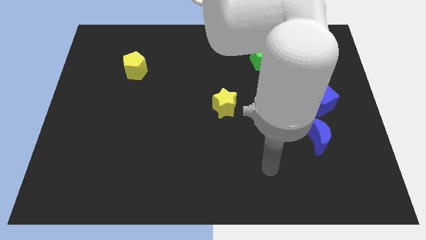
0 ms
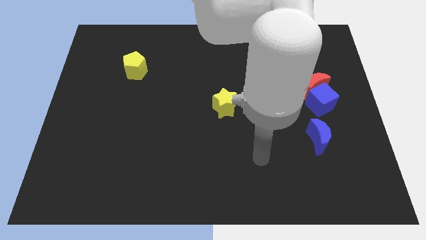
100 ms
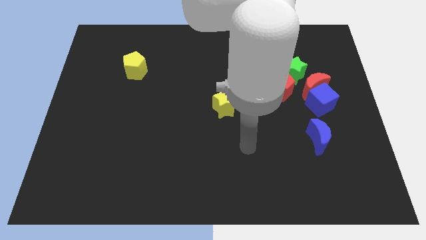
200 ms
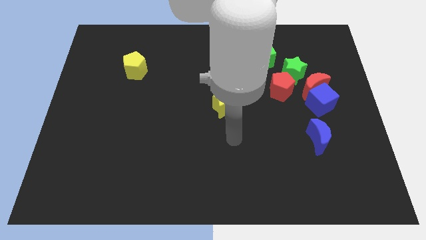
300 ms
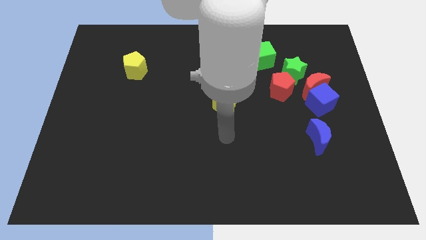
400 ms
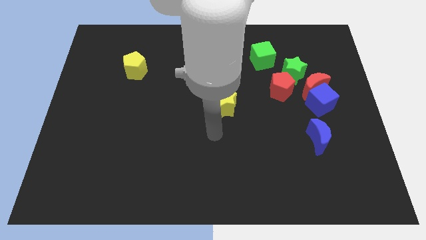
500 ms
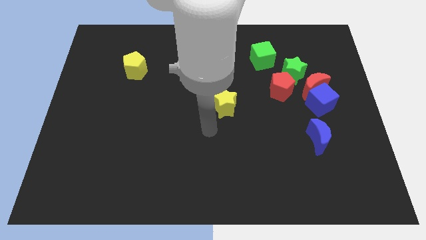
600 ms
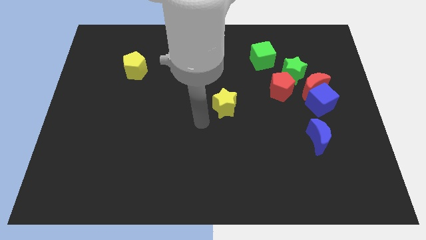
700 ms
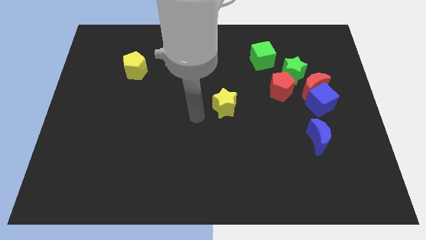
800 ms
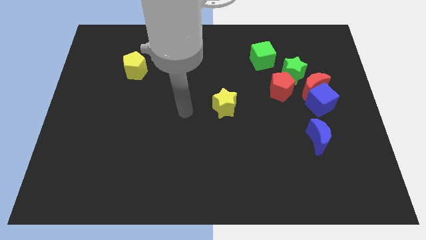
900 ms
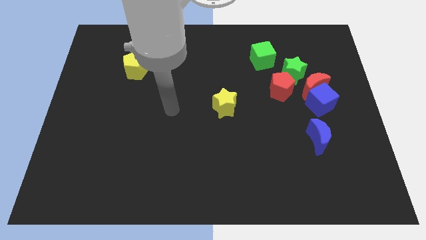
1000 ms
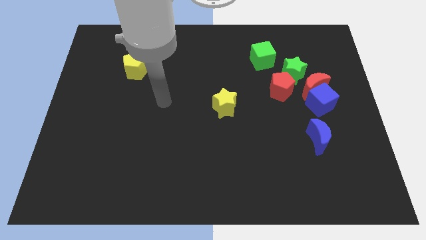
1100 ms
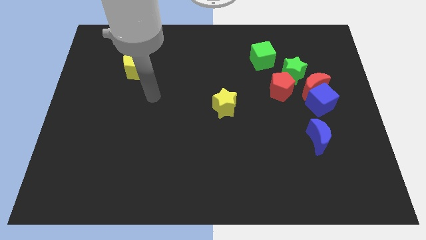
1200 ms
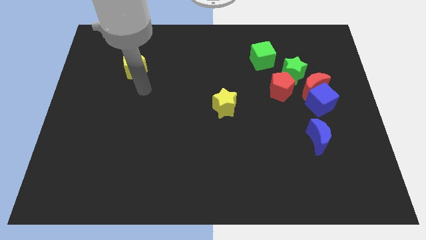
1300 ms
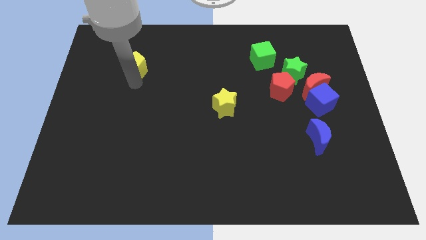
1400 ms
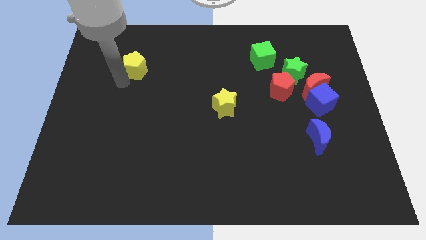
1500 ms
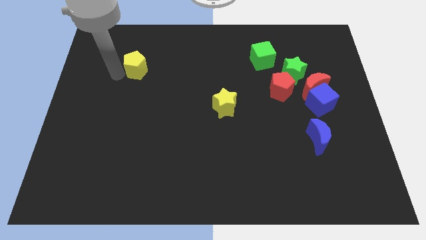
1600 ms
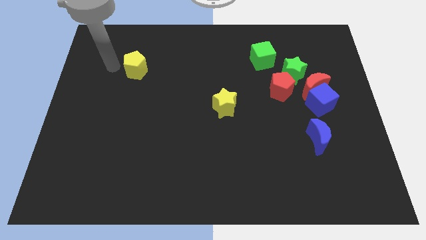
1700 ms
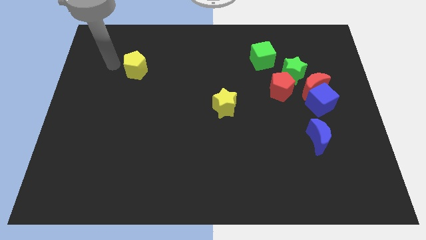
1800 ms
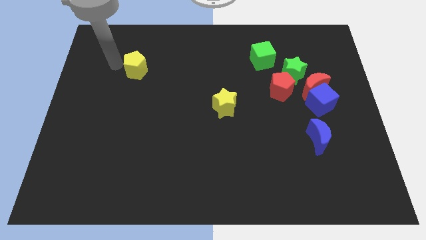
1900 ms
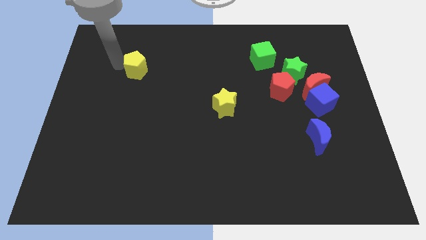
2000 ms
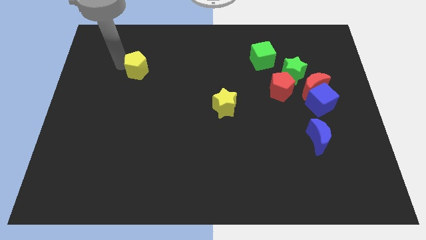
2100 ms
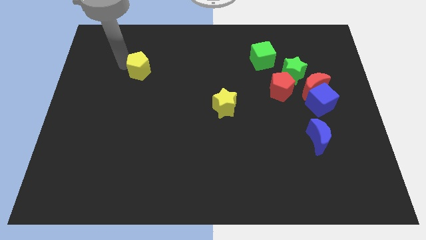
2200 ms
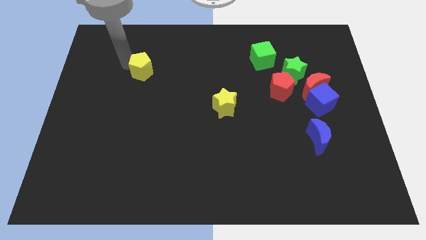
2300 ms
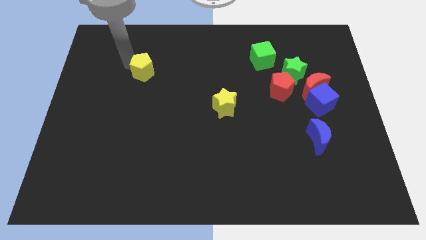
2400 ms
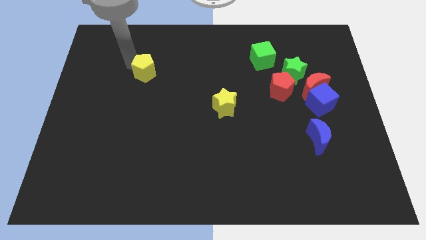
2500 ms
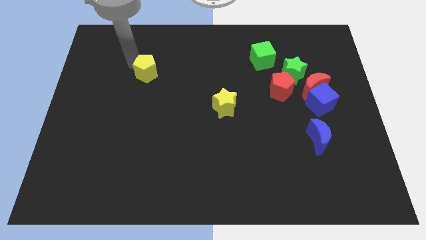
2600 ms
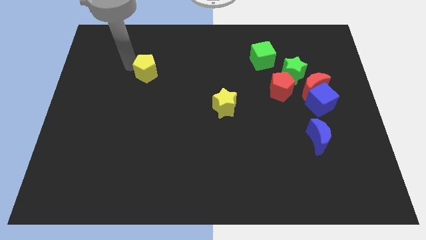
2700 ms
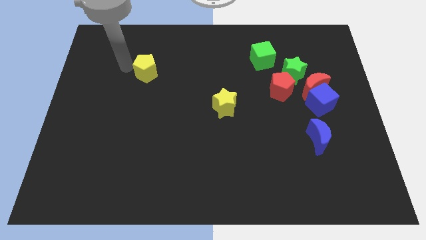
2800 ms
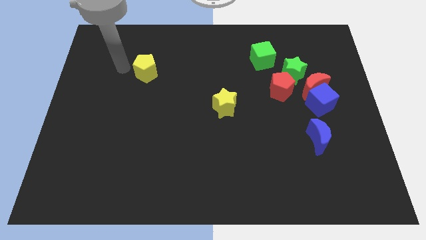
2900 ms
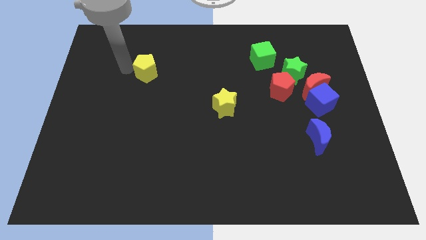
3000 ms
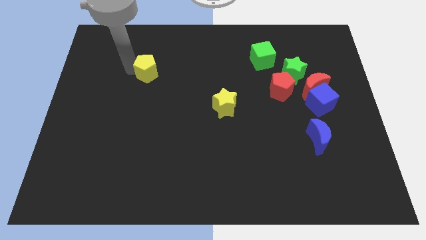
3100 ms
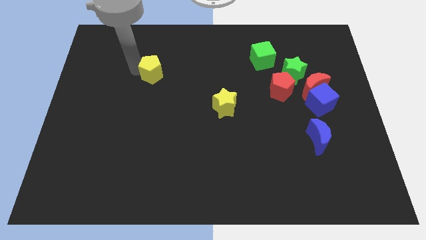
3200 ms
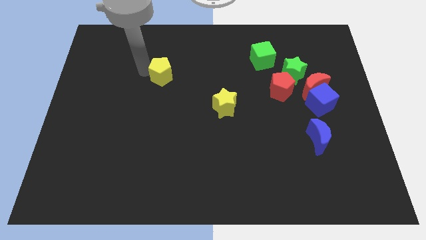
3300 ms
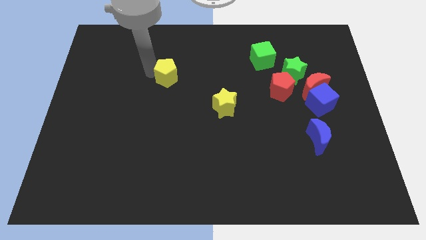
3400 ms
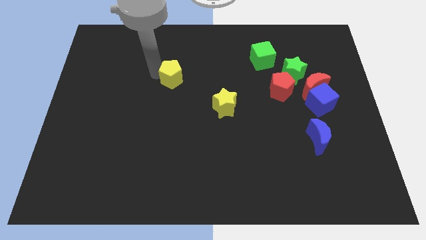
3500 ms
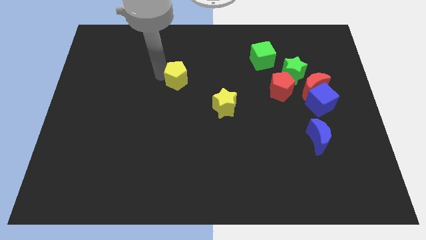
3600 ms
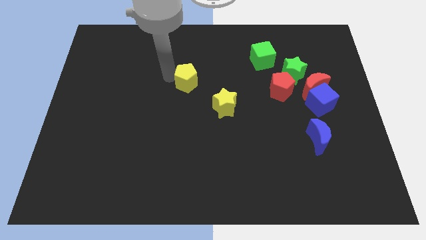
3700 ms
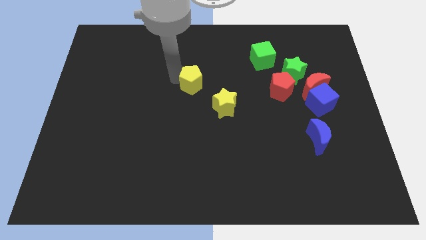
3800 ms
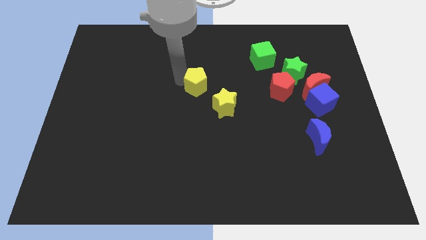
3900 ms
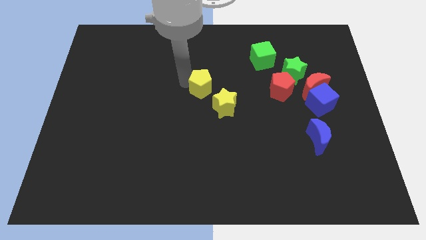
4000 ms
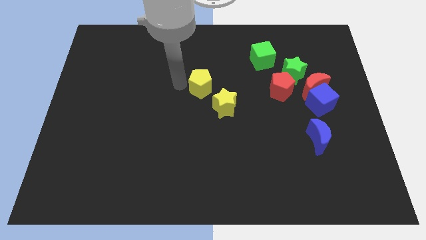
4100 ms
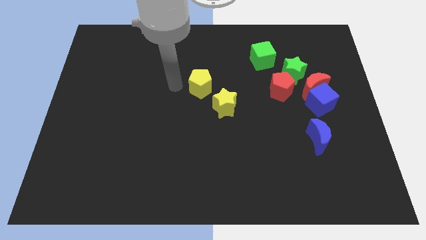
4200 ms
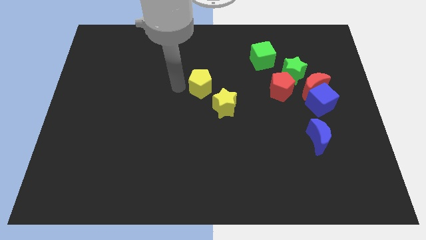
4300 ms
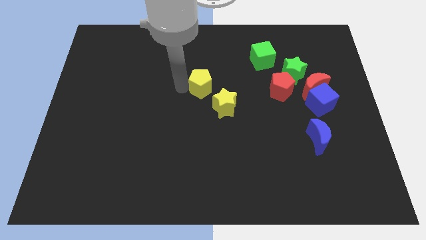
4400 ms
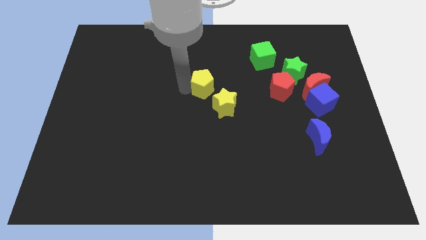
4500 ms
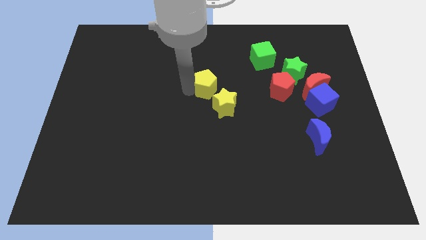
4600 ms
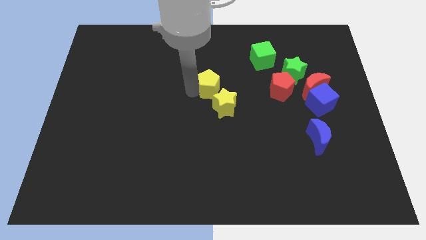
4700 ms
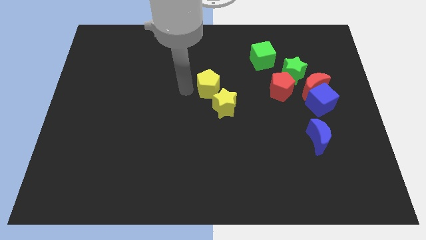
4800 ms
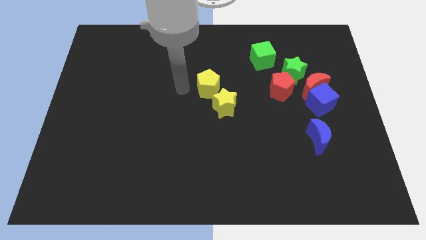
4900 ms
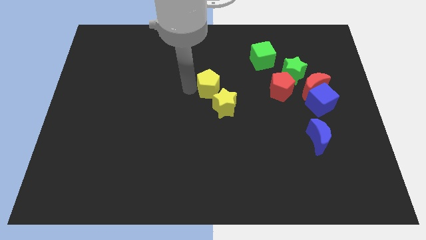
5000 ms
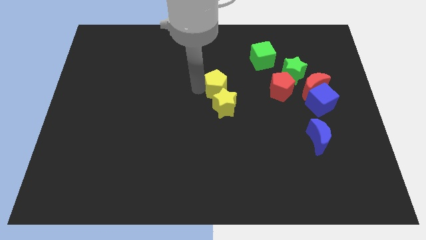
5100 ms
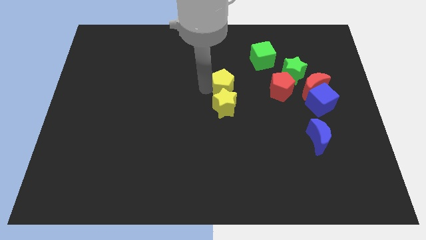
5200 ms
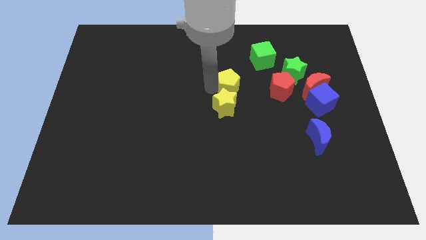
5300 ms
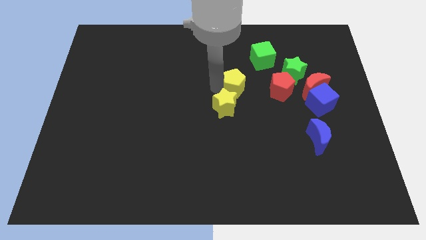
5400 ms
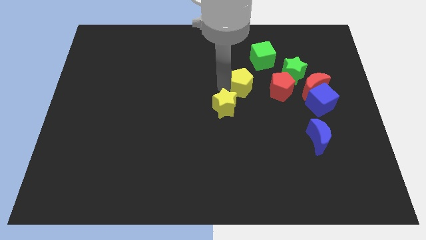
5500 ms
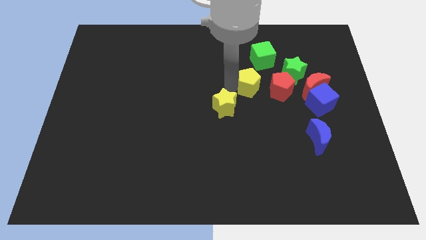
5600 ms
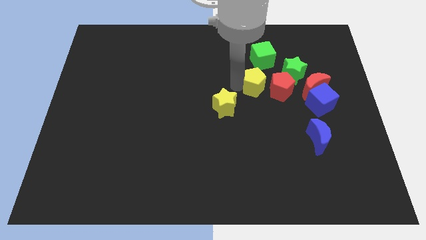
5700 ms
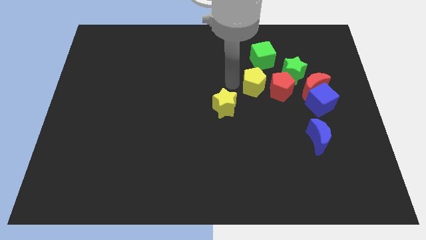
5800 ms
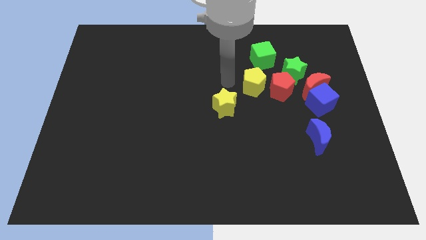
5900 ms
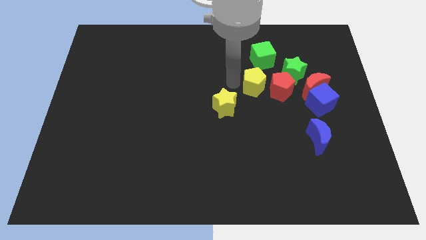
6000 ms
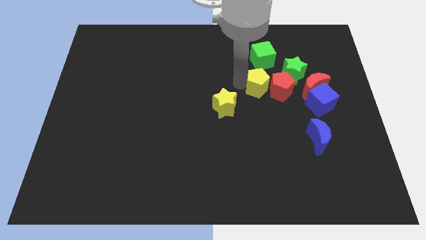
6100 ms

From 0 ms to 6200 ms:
slide the yellow pentagon towards the red pentagon

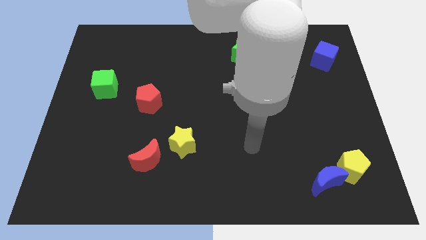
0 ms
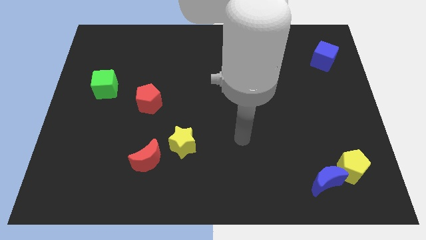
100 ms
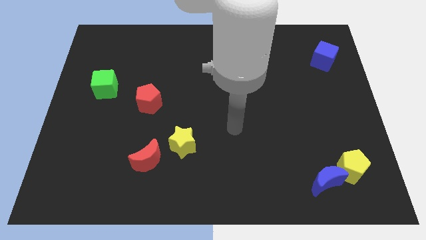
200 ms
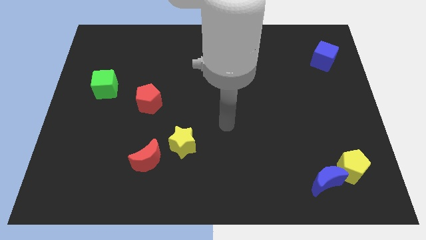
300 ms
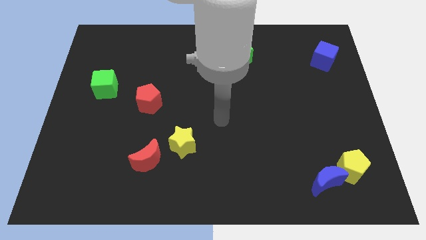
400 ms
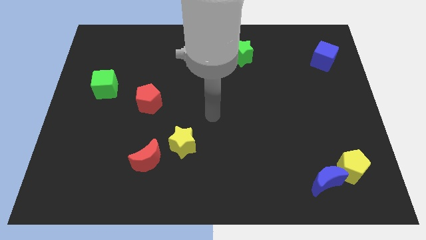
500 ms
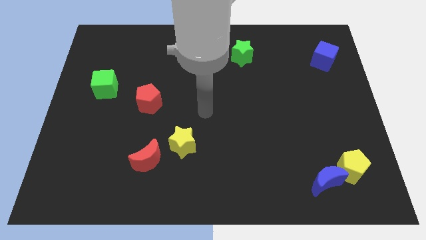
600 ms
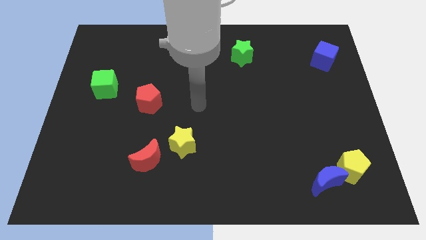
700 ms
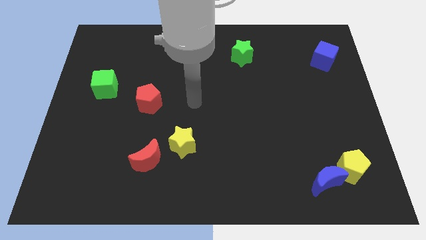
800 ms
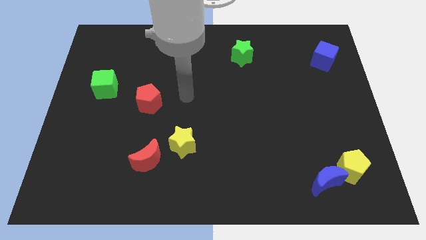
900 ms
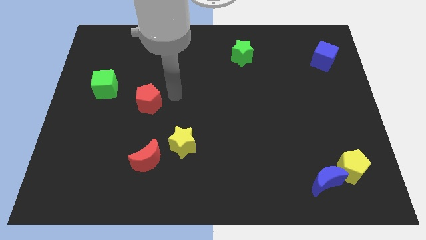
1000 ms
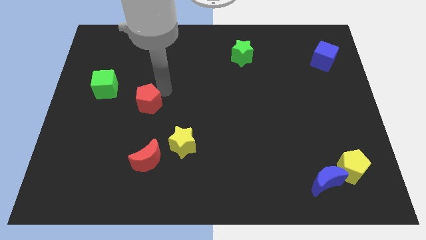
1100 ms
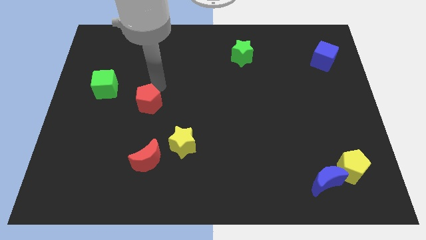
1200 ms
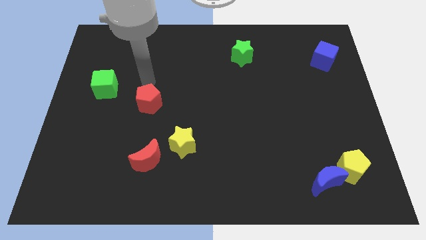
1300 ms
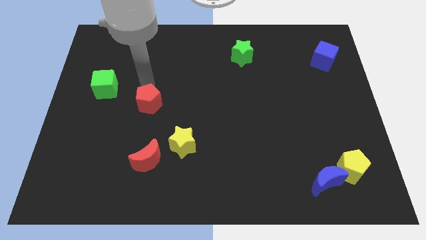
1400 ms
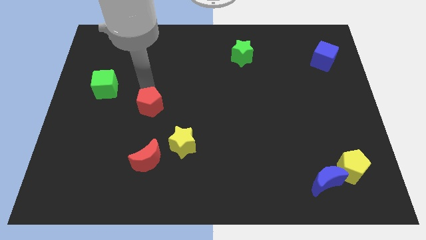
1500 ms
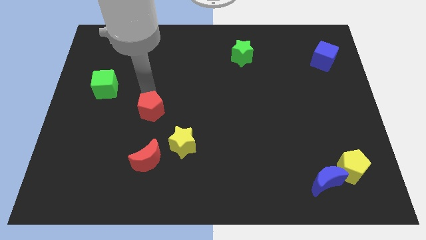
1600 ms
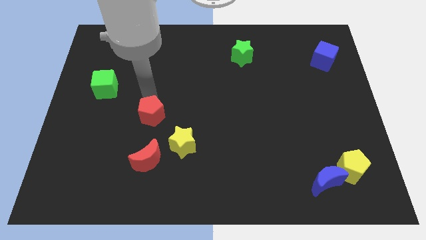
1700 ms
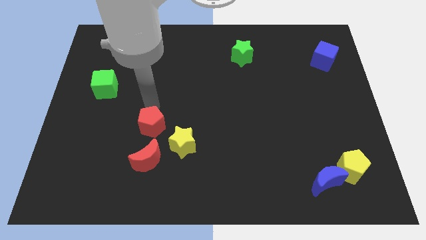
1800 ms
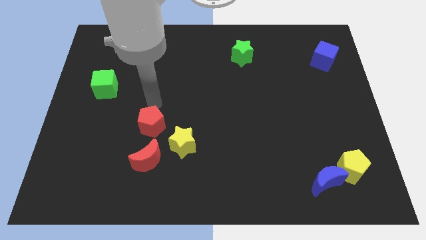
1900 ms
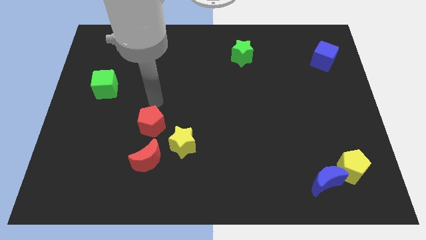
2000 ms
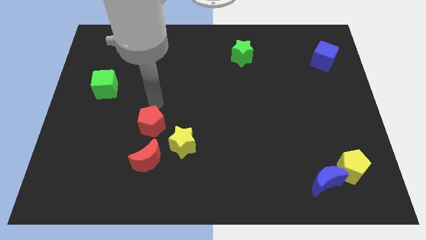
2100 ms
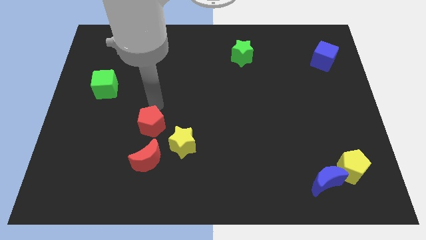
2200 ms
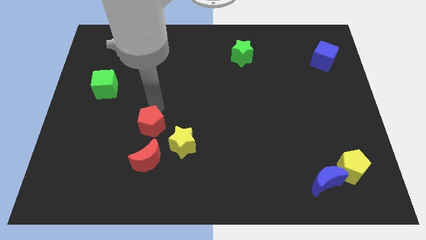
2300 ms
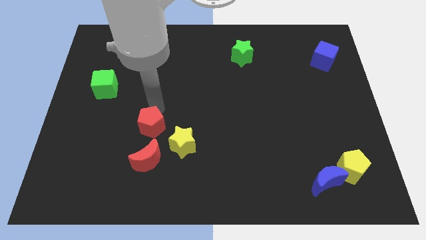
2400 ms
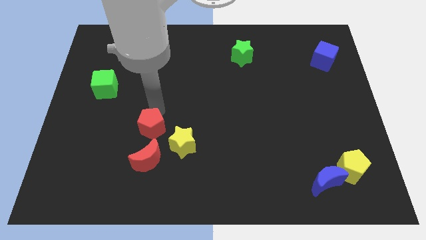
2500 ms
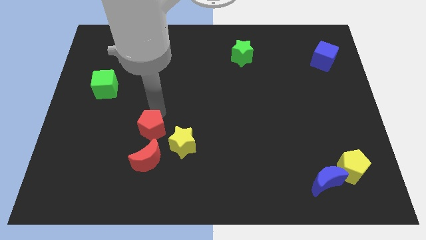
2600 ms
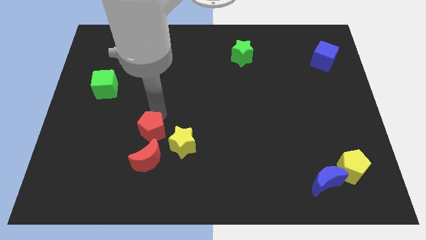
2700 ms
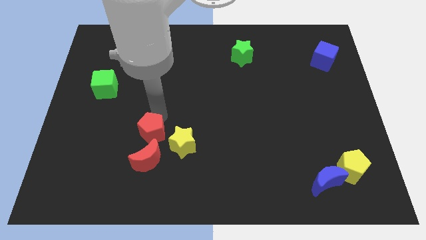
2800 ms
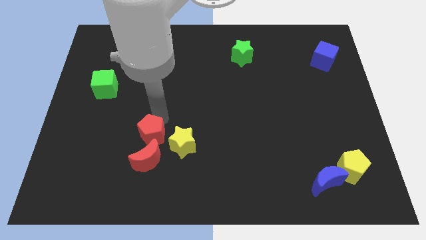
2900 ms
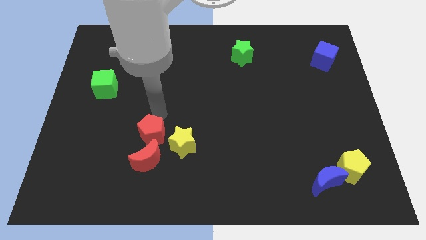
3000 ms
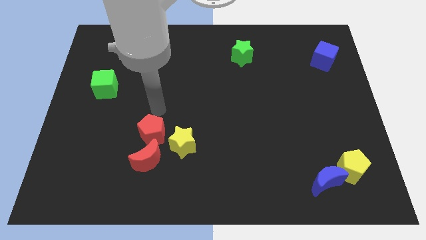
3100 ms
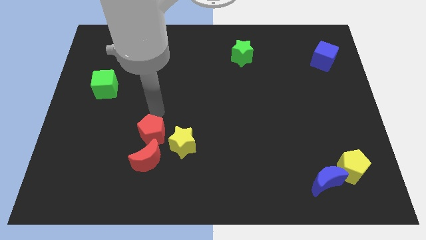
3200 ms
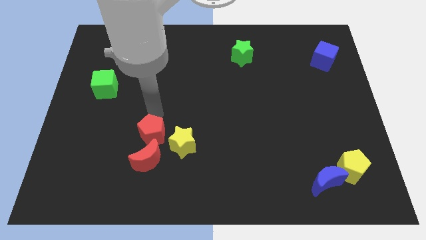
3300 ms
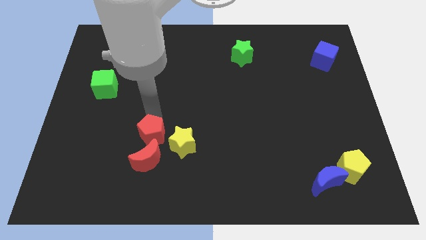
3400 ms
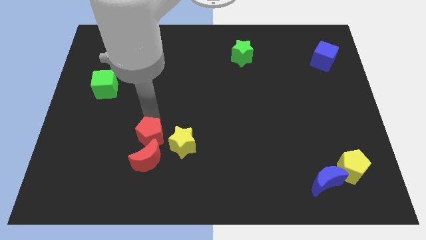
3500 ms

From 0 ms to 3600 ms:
push the red pentagon close to the red moon
